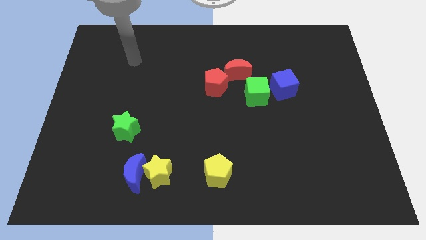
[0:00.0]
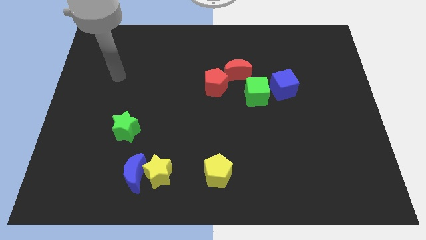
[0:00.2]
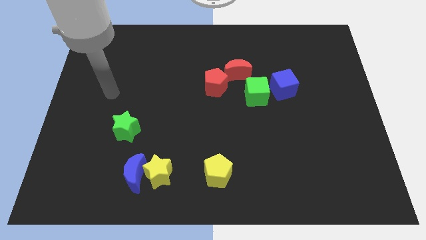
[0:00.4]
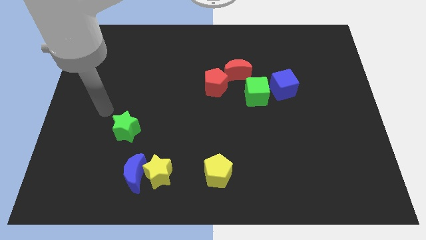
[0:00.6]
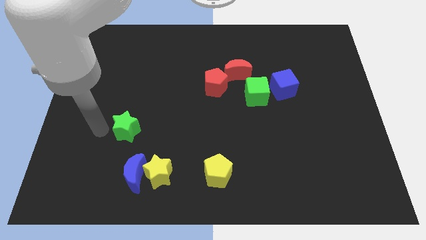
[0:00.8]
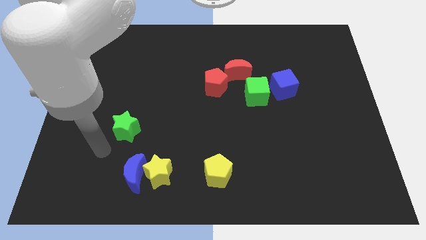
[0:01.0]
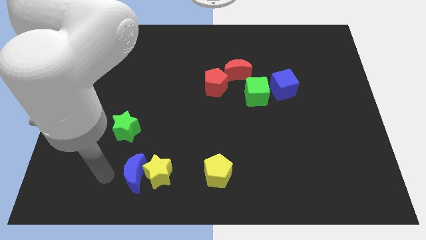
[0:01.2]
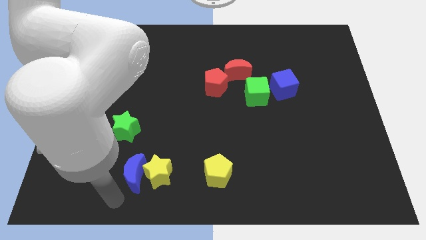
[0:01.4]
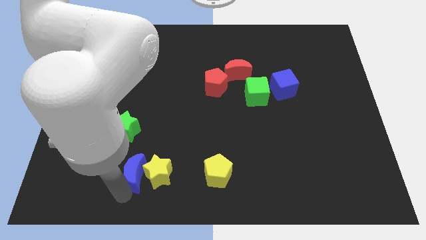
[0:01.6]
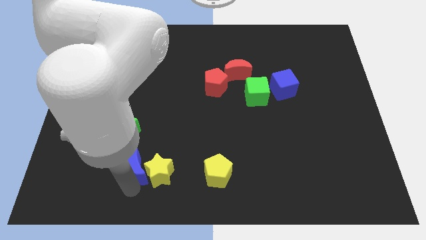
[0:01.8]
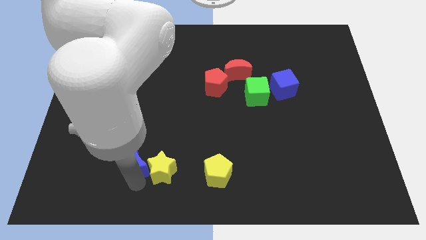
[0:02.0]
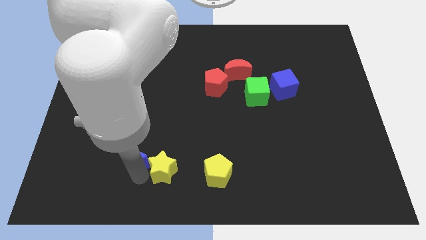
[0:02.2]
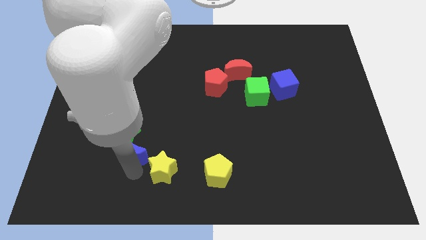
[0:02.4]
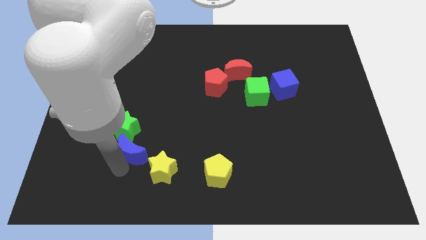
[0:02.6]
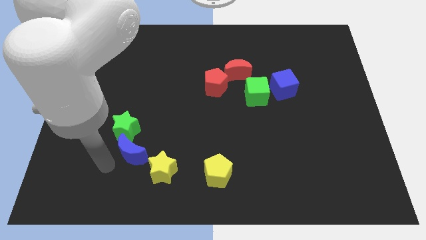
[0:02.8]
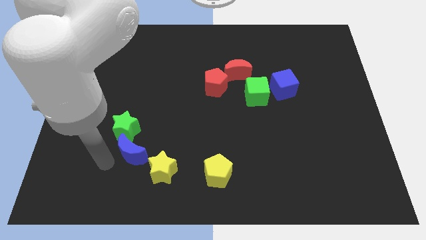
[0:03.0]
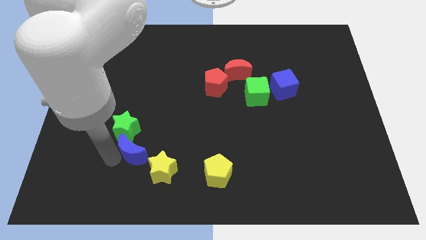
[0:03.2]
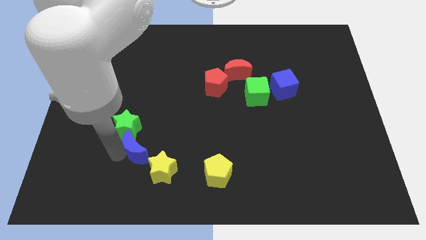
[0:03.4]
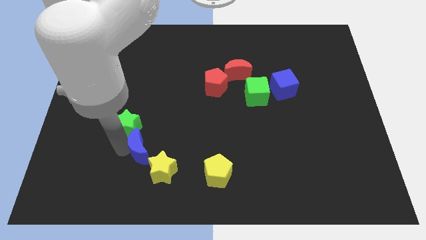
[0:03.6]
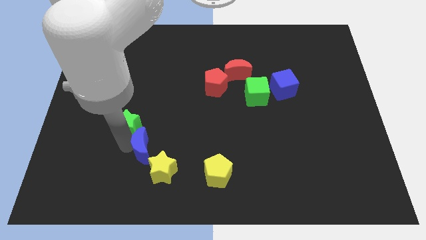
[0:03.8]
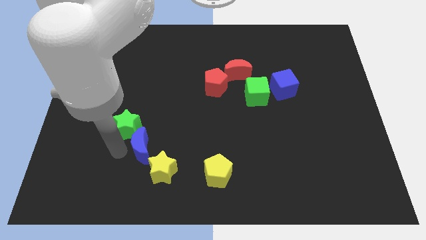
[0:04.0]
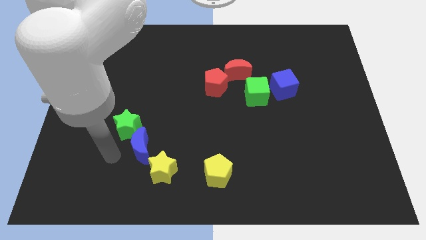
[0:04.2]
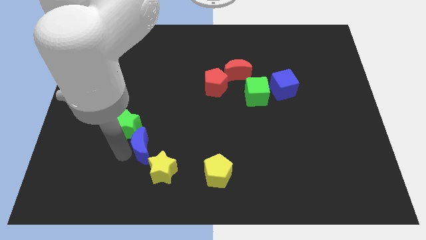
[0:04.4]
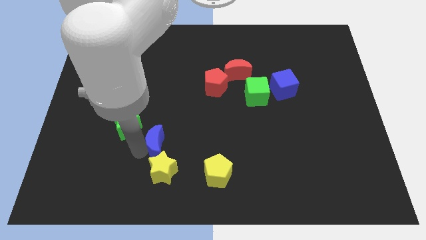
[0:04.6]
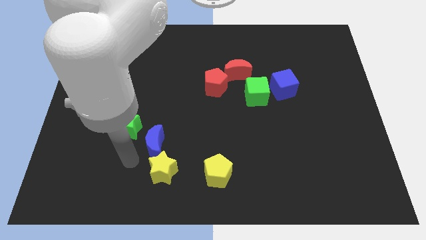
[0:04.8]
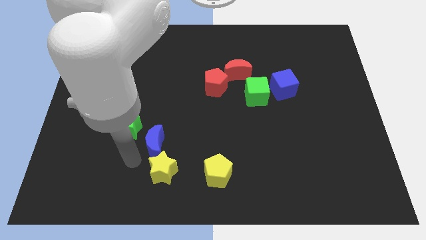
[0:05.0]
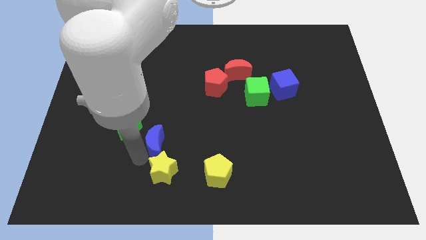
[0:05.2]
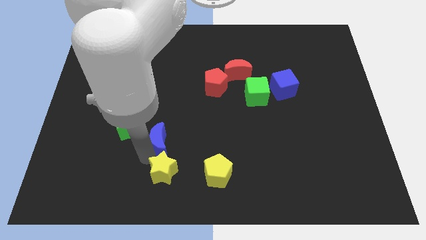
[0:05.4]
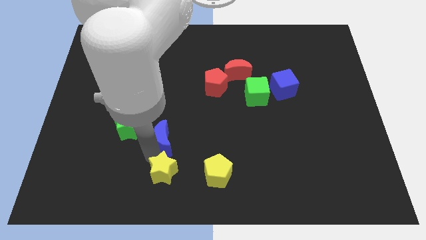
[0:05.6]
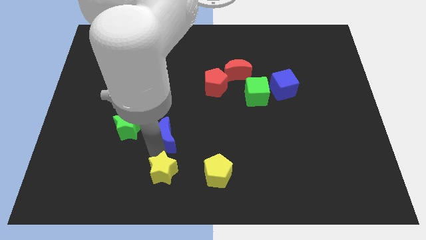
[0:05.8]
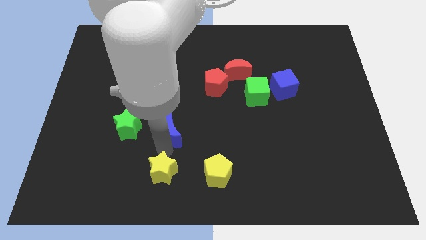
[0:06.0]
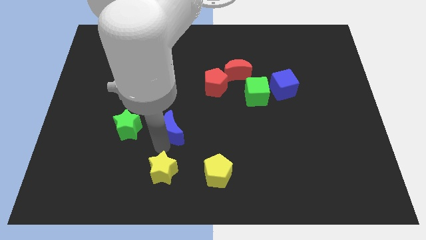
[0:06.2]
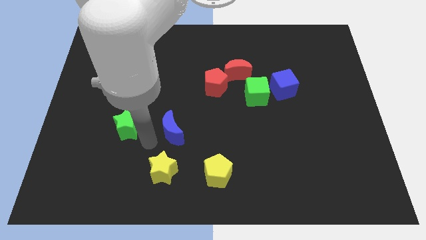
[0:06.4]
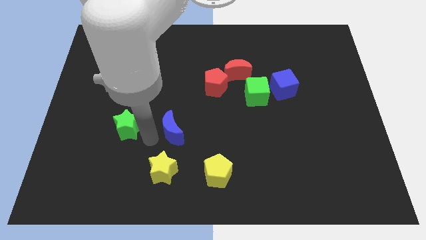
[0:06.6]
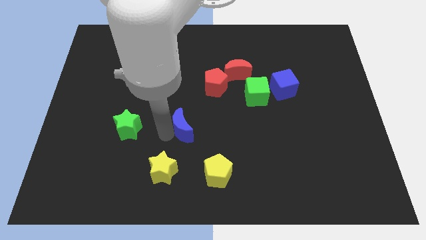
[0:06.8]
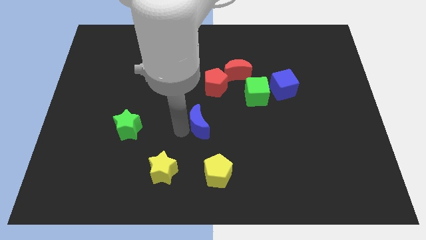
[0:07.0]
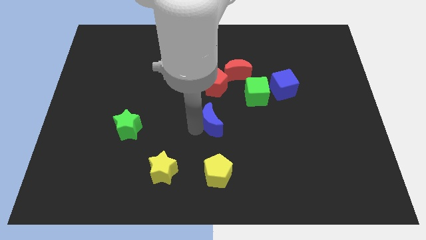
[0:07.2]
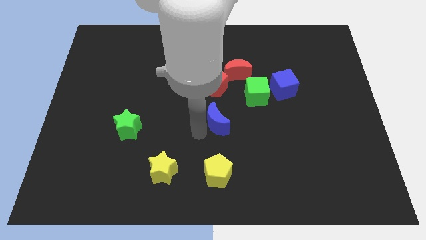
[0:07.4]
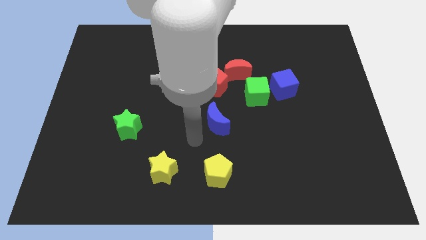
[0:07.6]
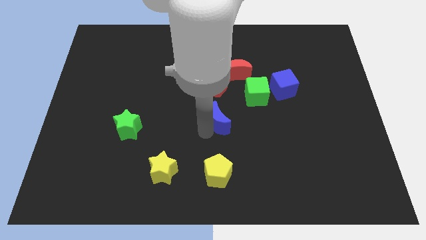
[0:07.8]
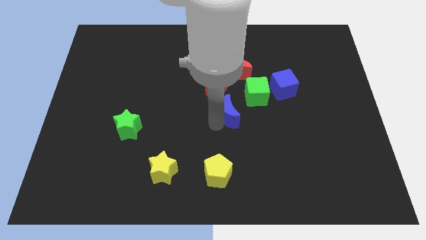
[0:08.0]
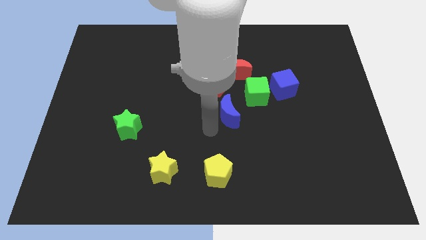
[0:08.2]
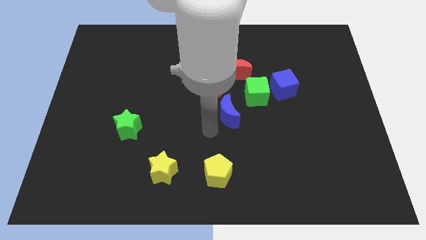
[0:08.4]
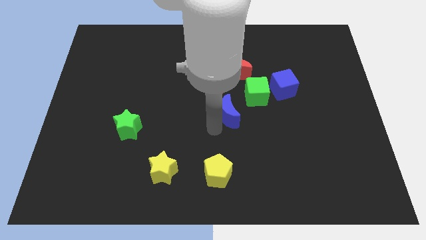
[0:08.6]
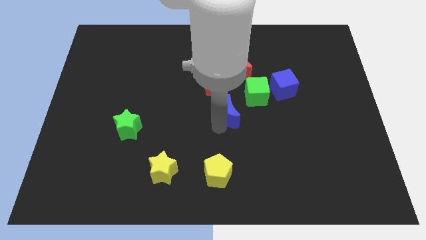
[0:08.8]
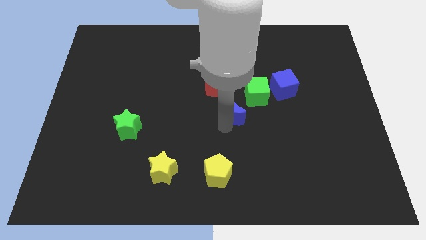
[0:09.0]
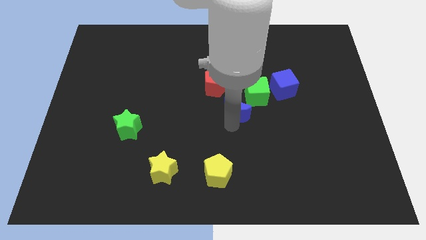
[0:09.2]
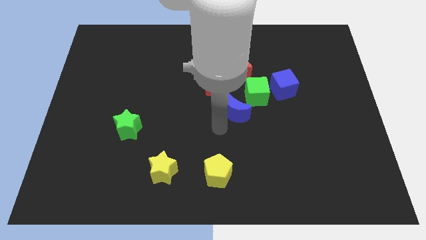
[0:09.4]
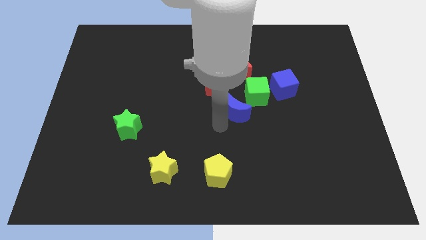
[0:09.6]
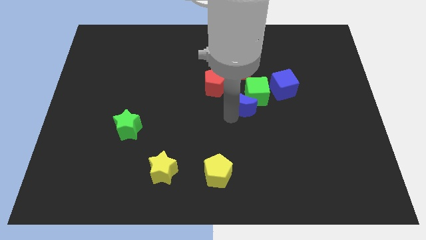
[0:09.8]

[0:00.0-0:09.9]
move the blue moon to the green cube

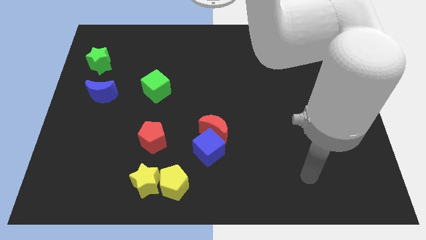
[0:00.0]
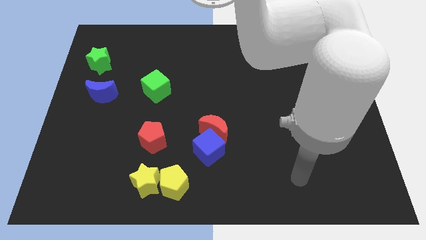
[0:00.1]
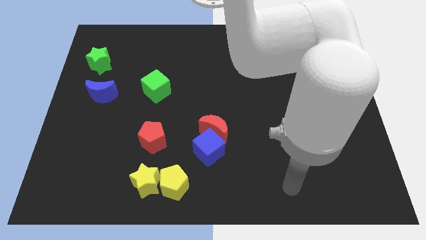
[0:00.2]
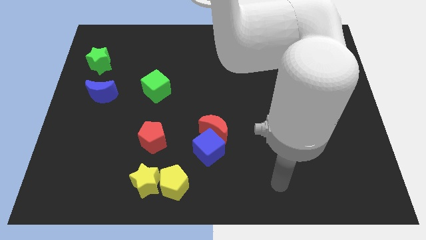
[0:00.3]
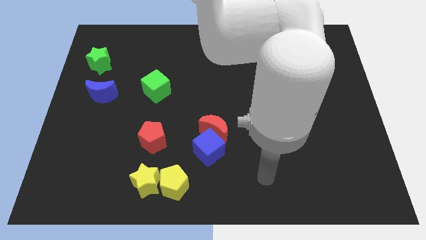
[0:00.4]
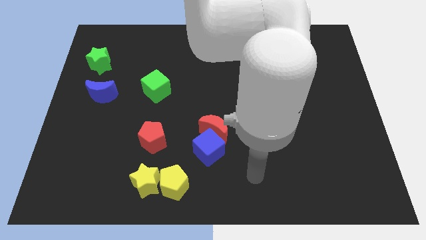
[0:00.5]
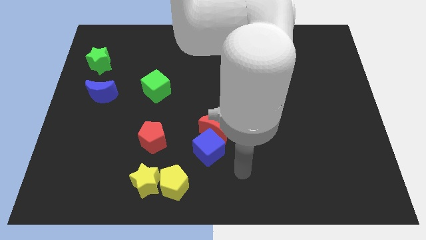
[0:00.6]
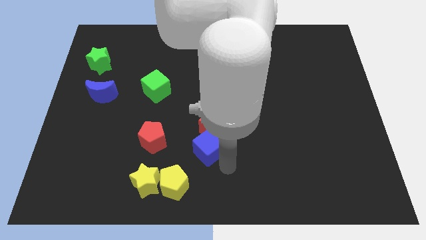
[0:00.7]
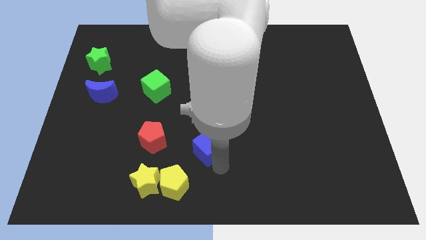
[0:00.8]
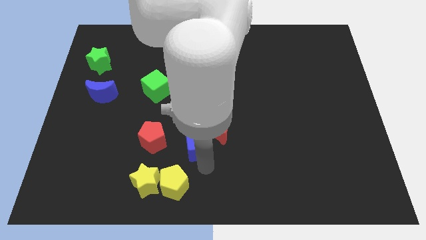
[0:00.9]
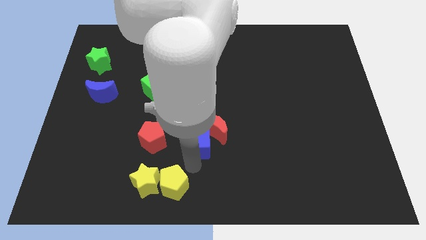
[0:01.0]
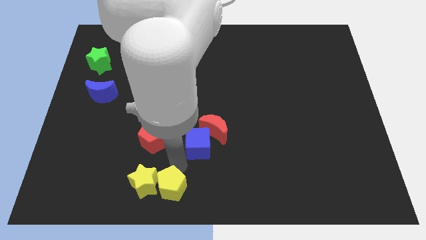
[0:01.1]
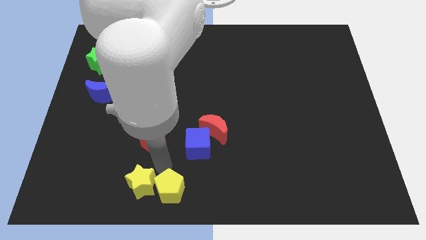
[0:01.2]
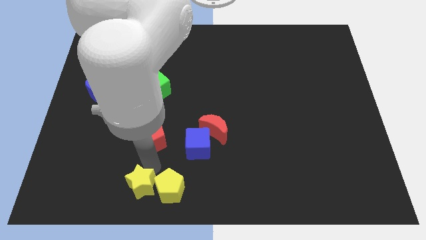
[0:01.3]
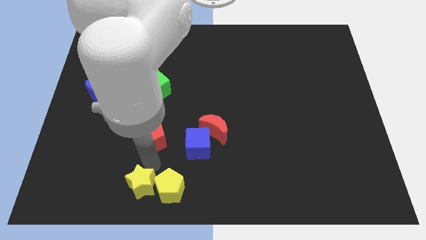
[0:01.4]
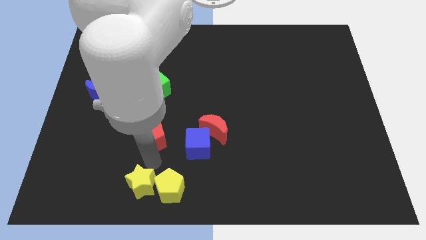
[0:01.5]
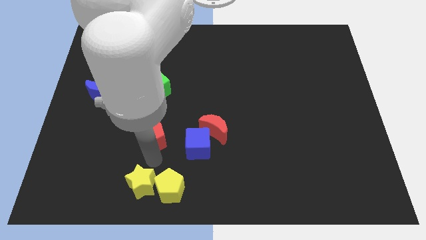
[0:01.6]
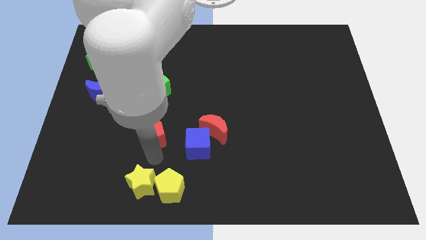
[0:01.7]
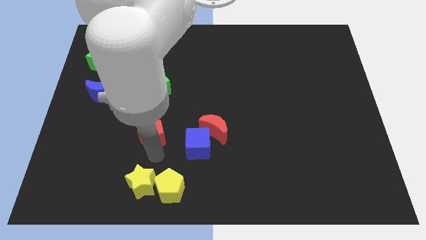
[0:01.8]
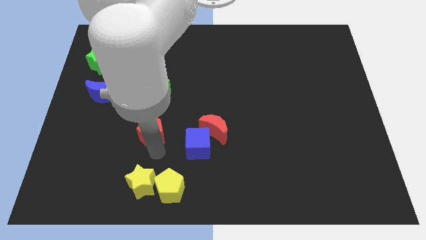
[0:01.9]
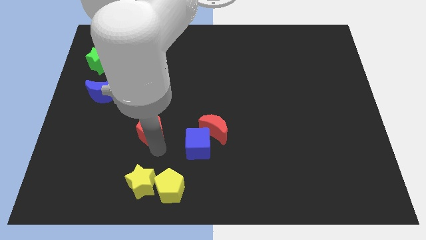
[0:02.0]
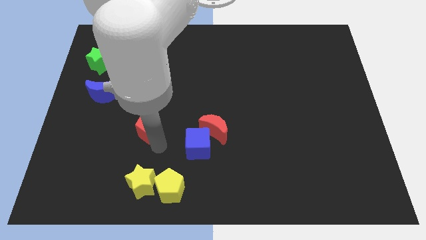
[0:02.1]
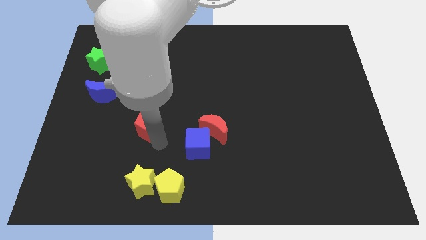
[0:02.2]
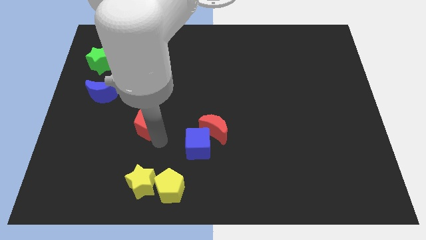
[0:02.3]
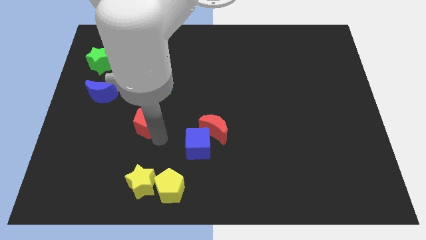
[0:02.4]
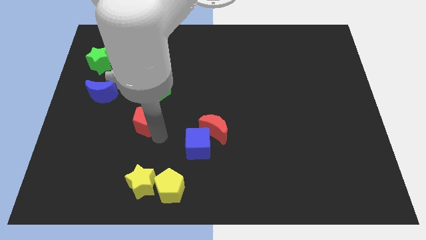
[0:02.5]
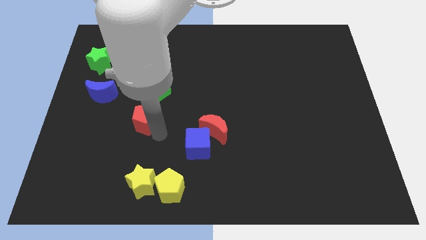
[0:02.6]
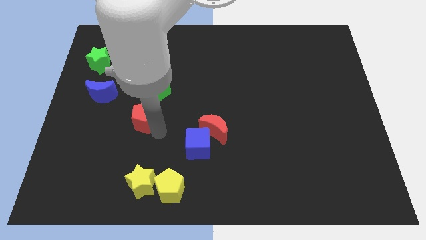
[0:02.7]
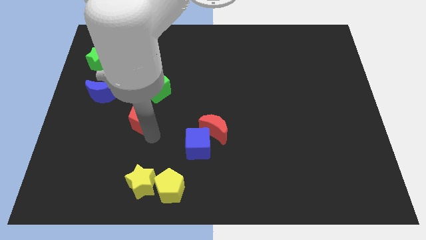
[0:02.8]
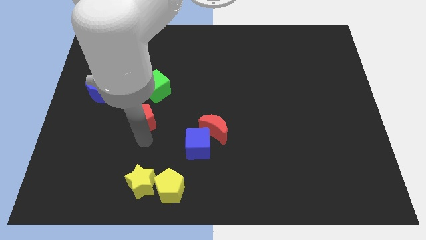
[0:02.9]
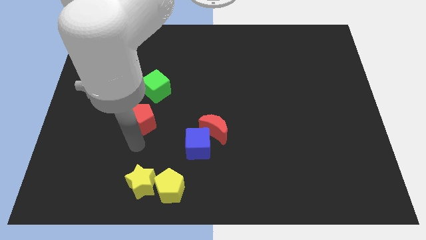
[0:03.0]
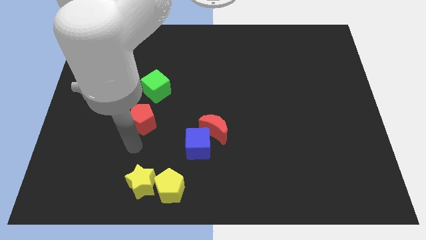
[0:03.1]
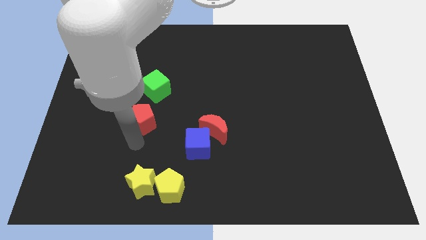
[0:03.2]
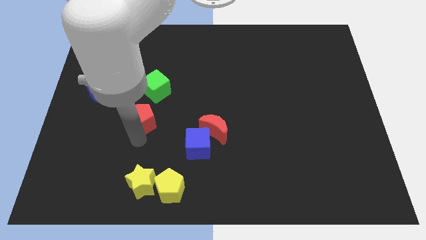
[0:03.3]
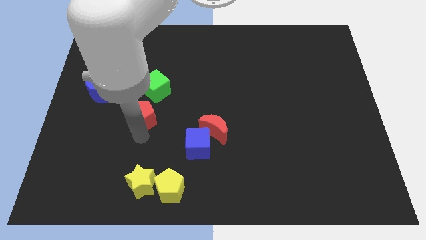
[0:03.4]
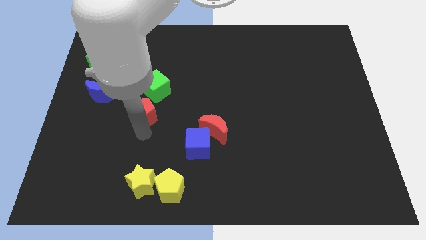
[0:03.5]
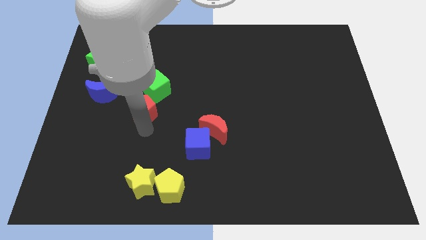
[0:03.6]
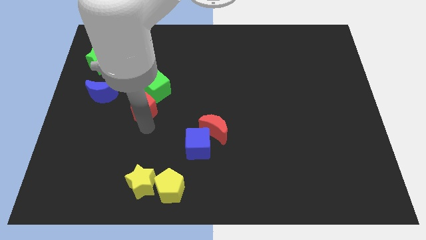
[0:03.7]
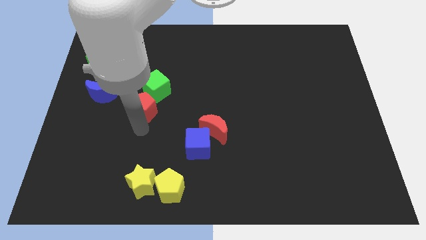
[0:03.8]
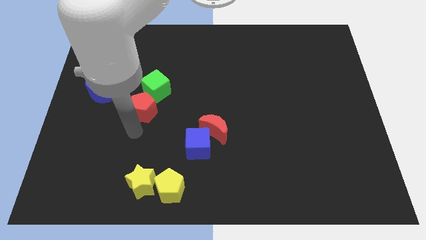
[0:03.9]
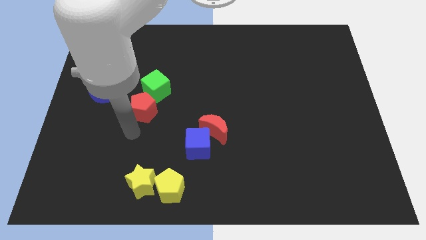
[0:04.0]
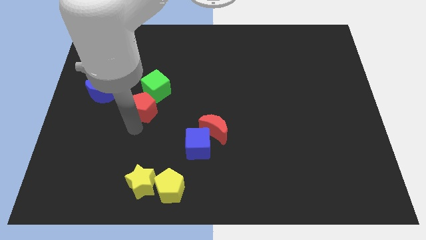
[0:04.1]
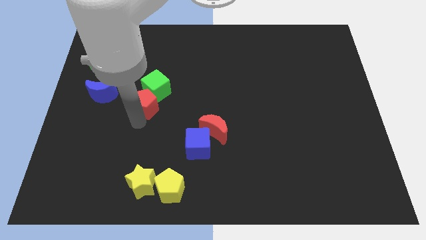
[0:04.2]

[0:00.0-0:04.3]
put the red pentagon towards the green cube
